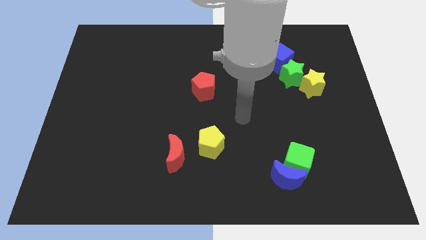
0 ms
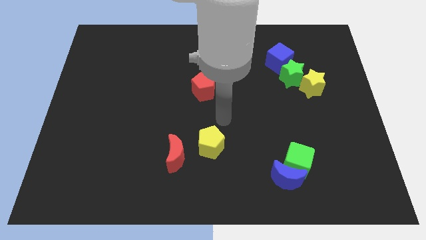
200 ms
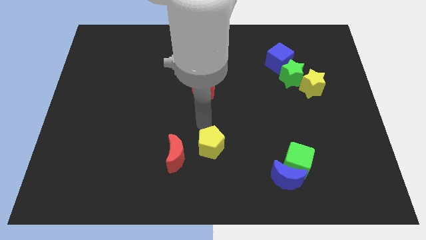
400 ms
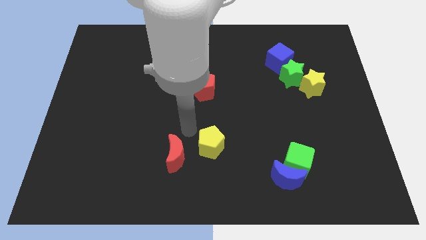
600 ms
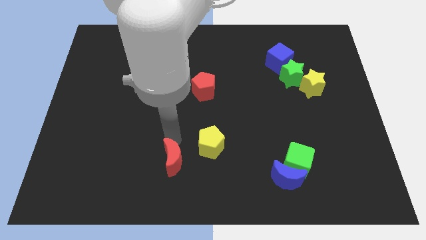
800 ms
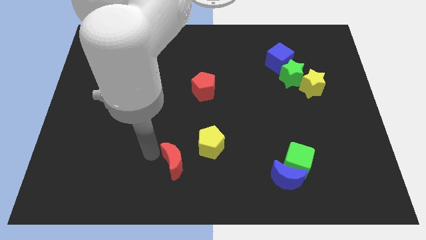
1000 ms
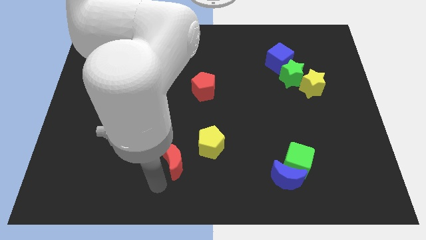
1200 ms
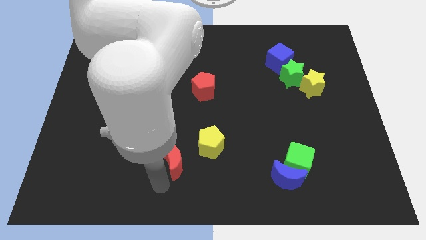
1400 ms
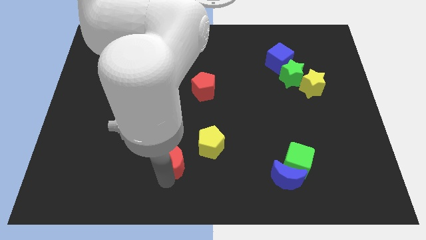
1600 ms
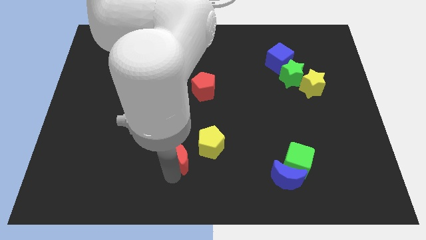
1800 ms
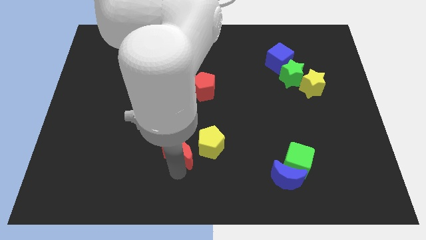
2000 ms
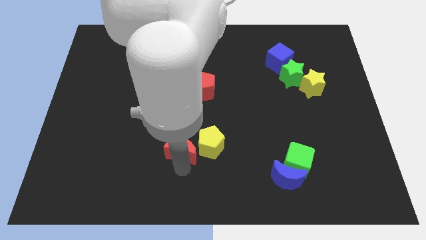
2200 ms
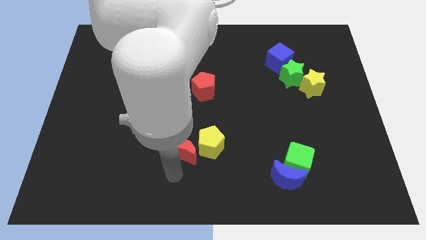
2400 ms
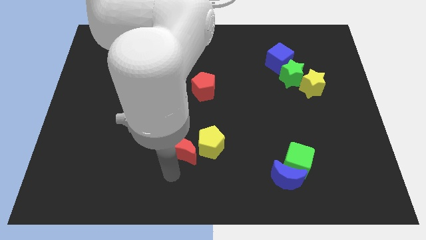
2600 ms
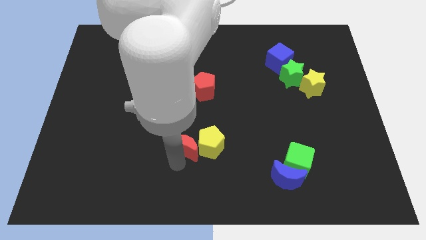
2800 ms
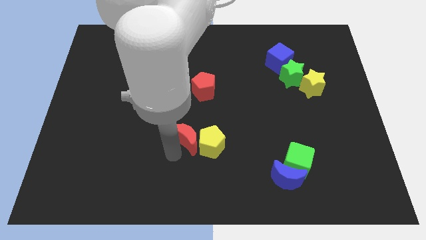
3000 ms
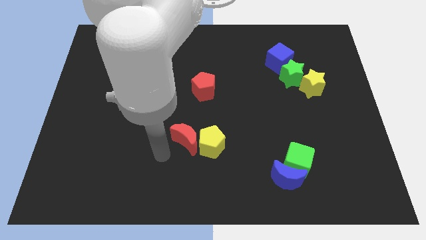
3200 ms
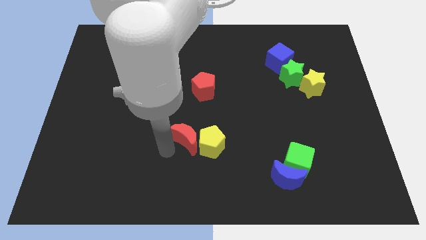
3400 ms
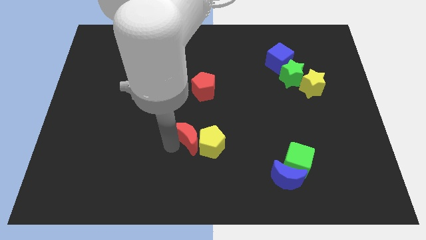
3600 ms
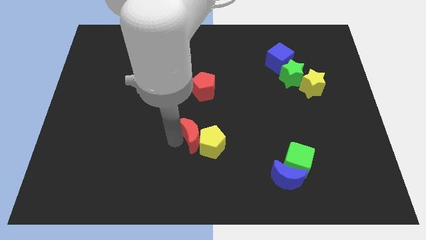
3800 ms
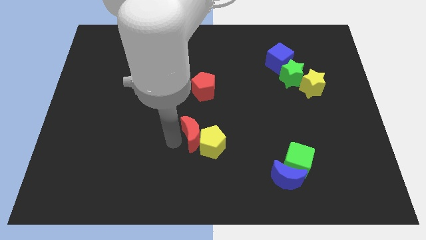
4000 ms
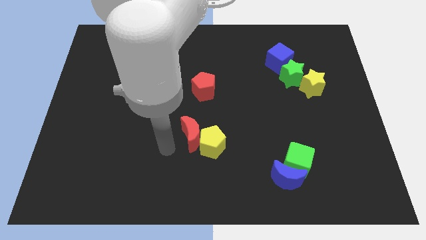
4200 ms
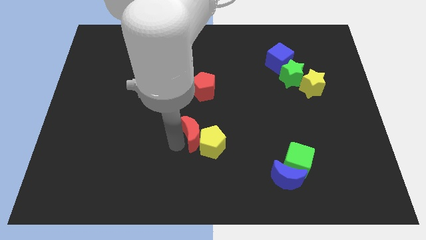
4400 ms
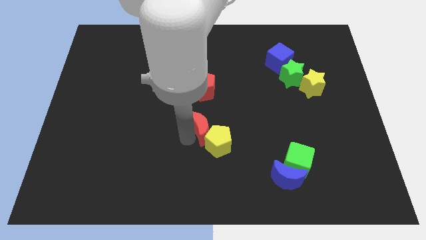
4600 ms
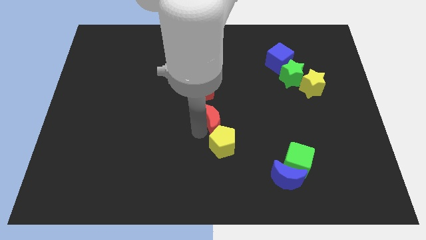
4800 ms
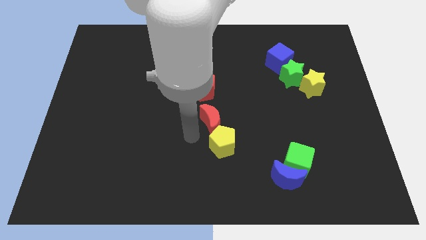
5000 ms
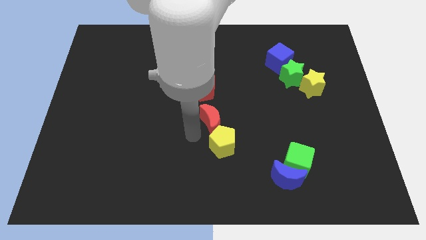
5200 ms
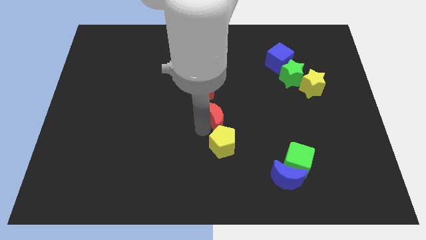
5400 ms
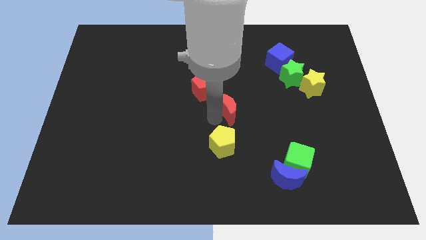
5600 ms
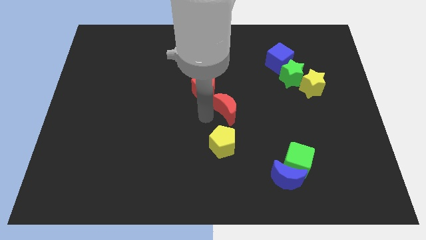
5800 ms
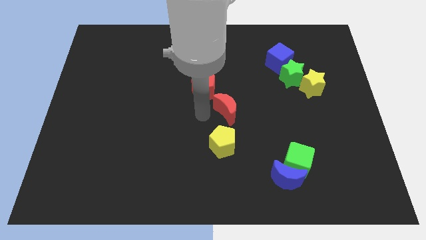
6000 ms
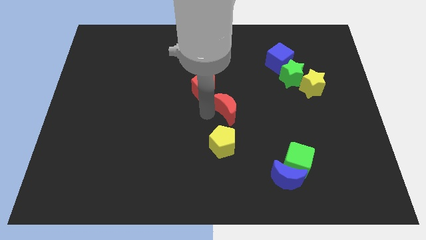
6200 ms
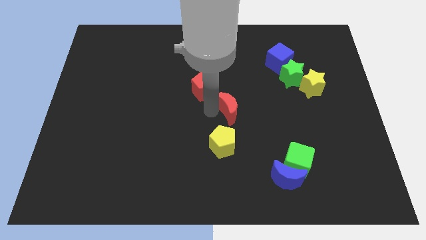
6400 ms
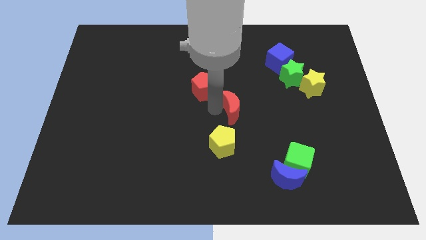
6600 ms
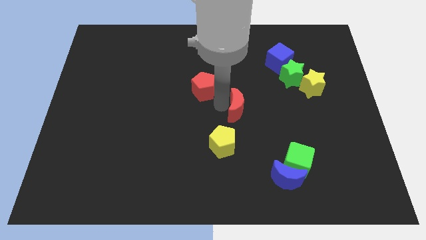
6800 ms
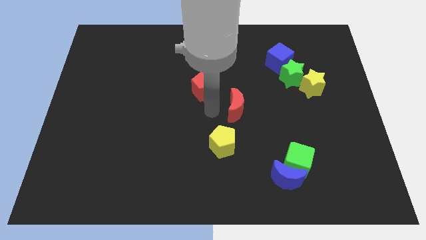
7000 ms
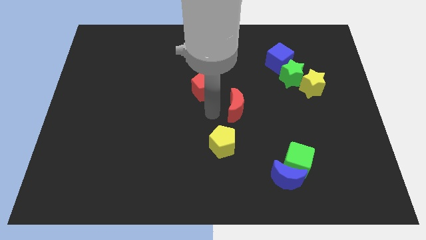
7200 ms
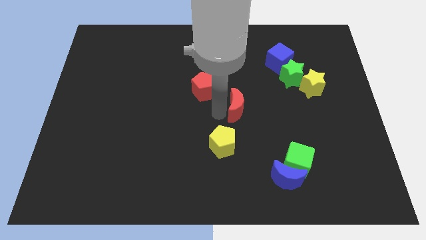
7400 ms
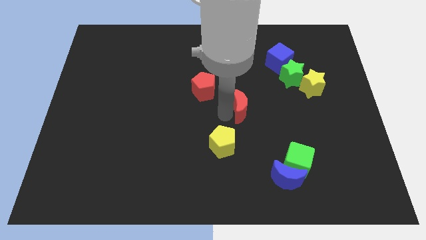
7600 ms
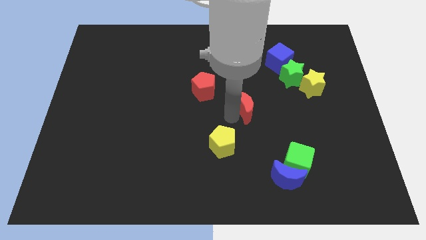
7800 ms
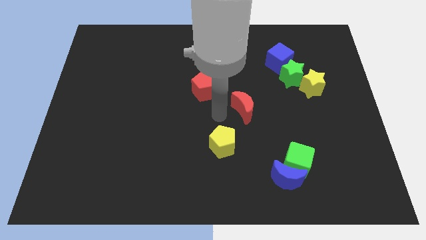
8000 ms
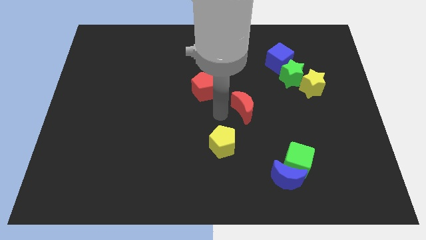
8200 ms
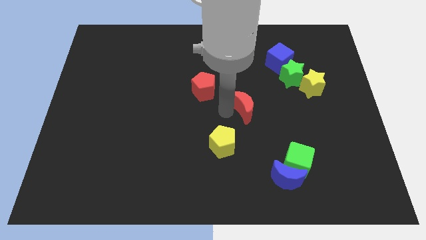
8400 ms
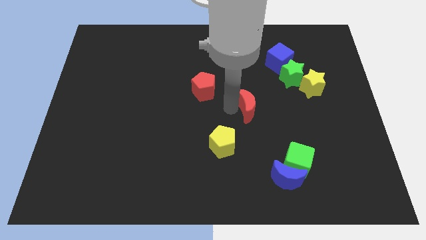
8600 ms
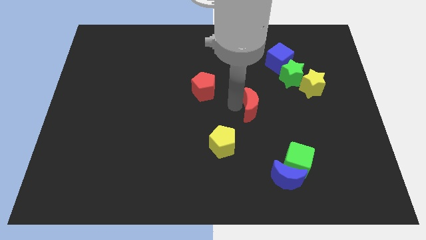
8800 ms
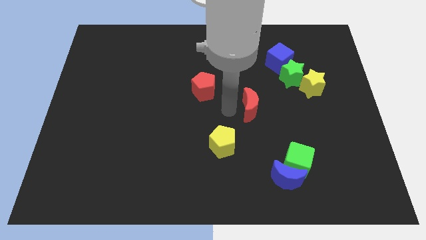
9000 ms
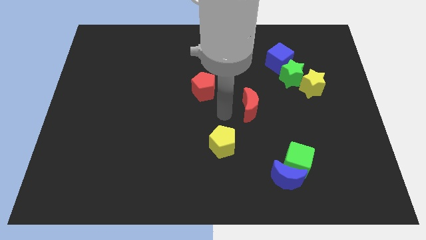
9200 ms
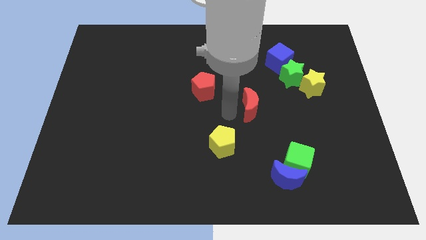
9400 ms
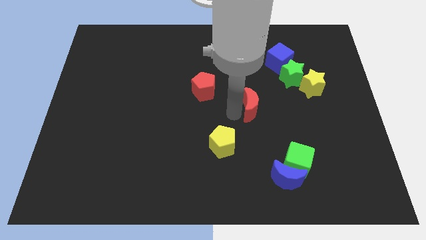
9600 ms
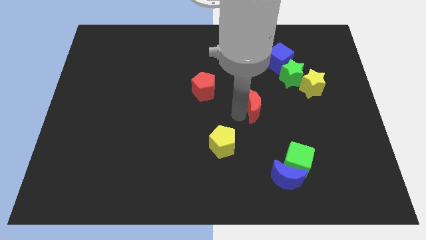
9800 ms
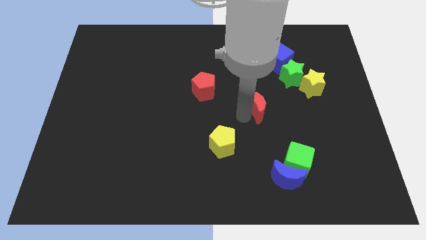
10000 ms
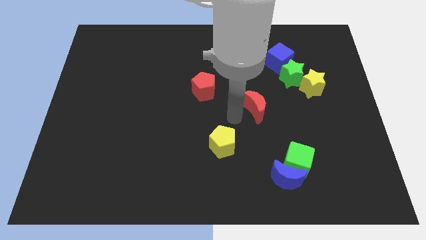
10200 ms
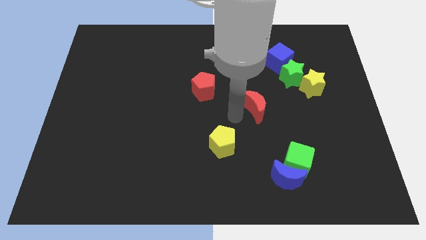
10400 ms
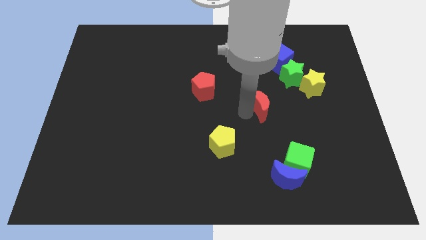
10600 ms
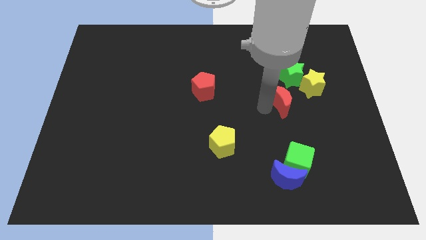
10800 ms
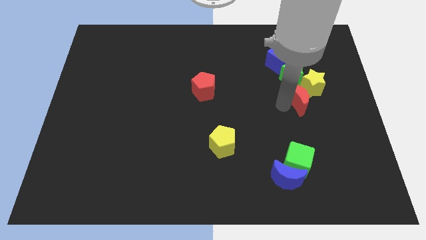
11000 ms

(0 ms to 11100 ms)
slide the red moon next to the yellow star

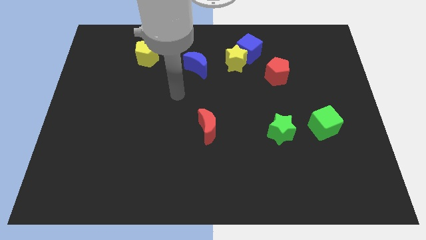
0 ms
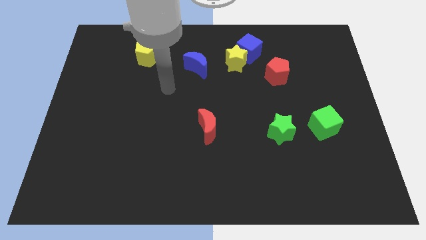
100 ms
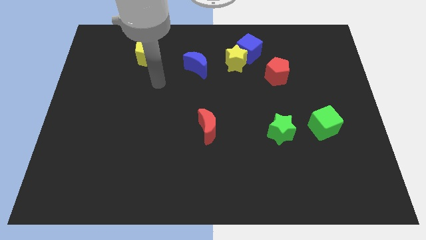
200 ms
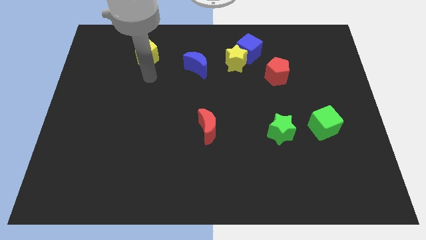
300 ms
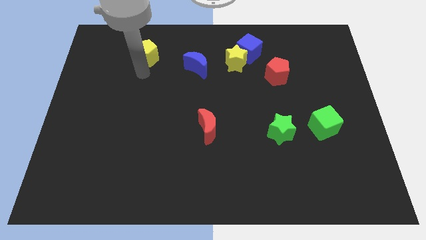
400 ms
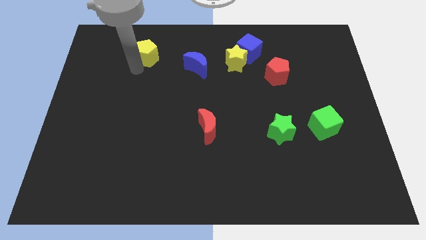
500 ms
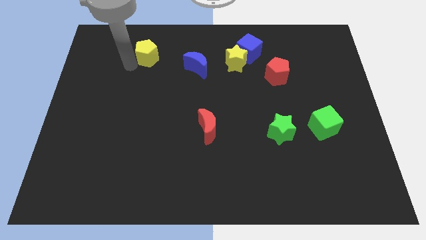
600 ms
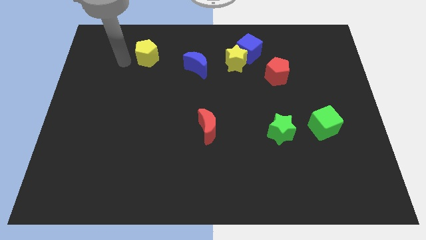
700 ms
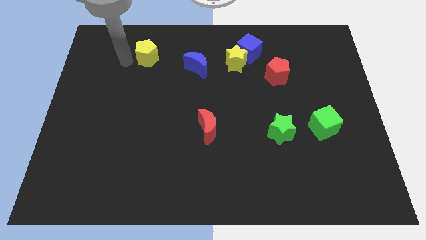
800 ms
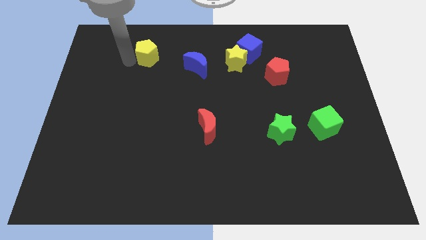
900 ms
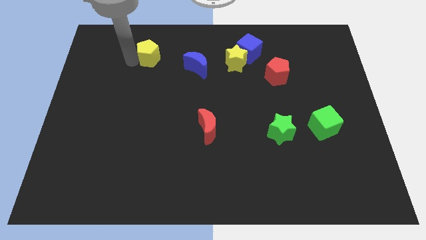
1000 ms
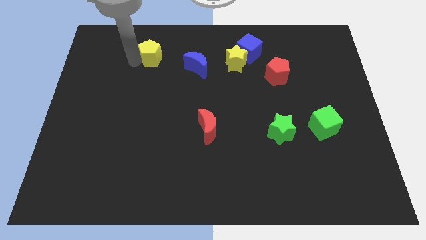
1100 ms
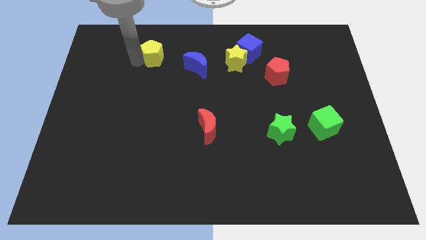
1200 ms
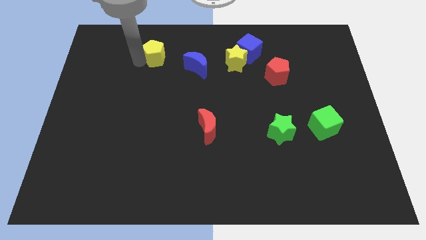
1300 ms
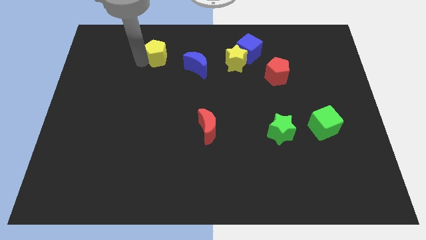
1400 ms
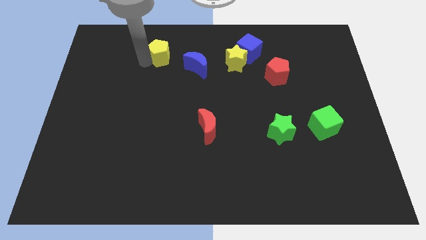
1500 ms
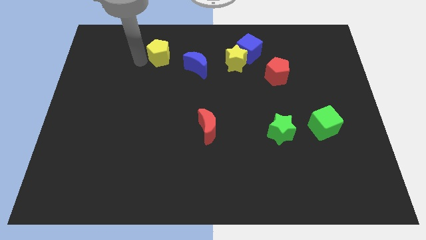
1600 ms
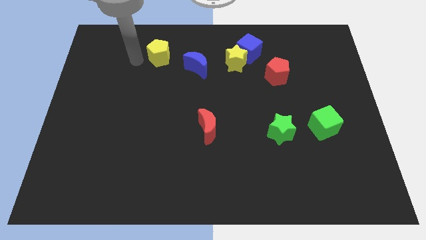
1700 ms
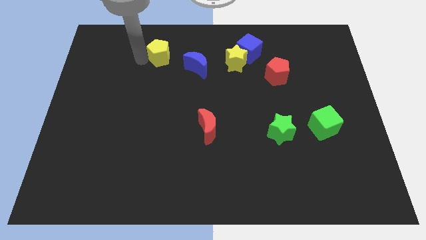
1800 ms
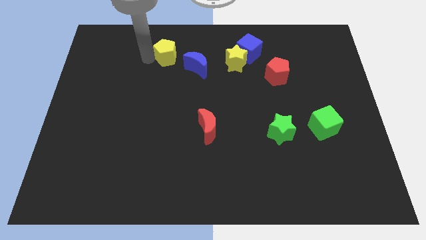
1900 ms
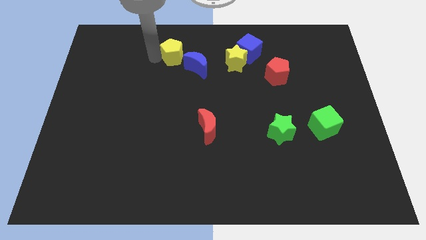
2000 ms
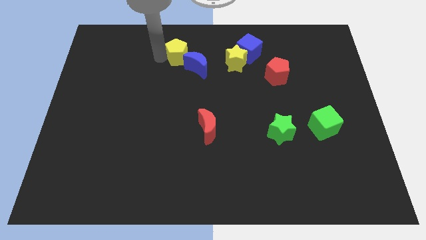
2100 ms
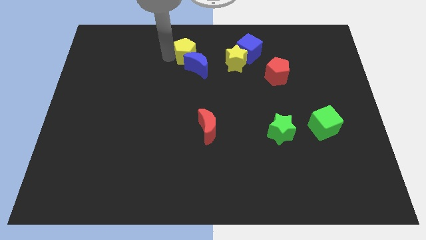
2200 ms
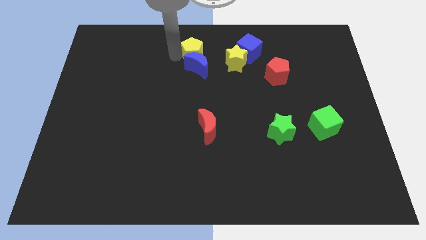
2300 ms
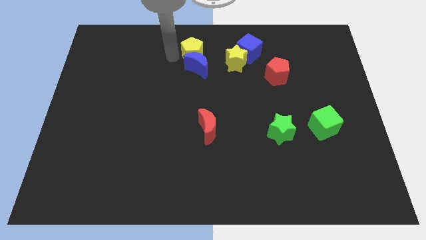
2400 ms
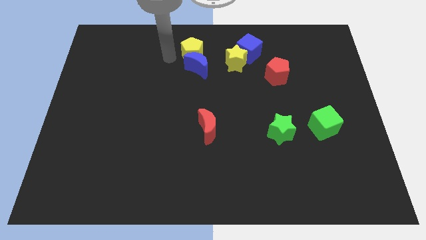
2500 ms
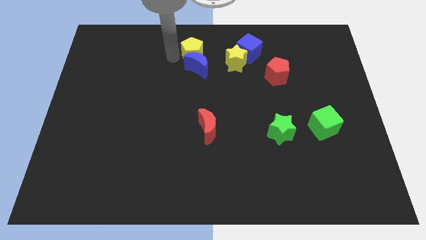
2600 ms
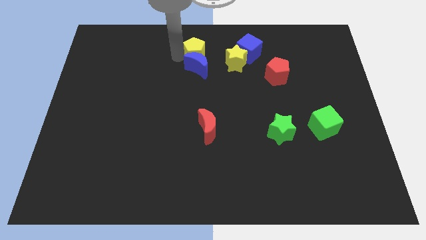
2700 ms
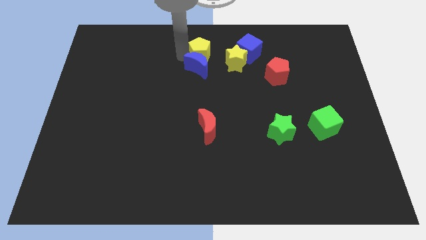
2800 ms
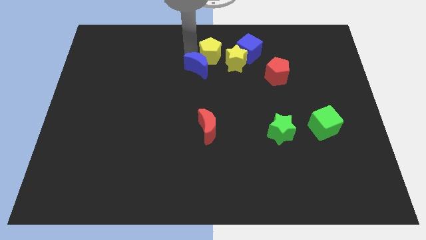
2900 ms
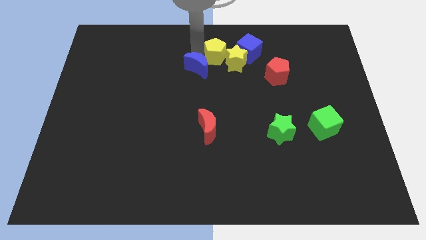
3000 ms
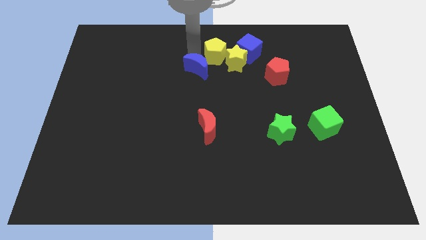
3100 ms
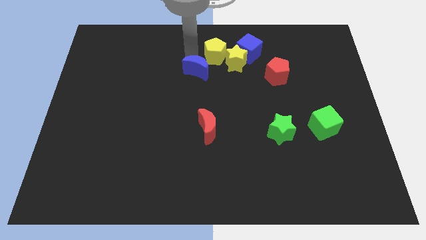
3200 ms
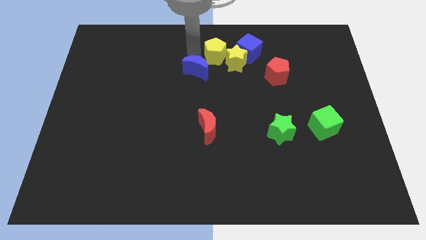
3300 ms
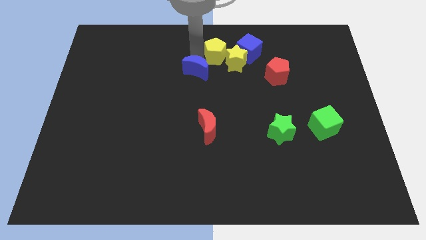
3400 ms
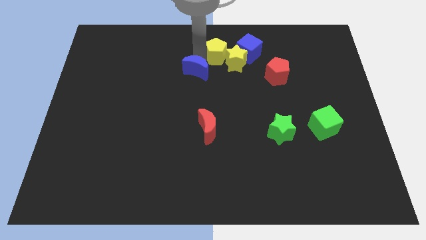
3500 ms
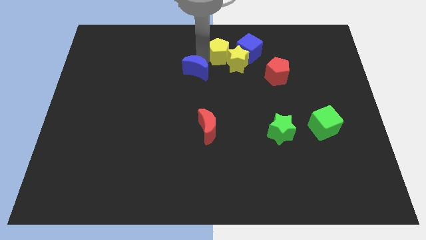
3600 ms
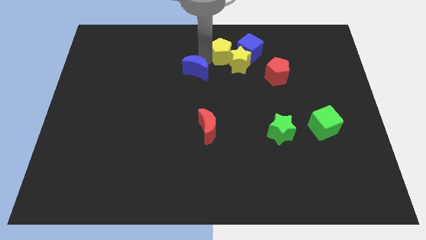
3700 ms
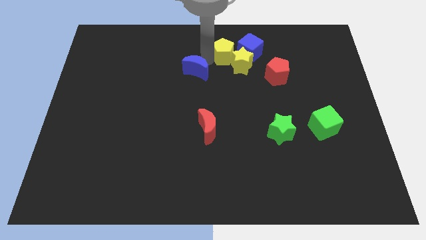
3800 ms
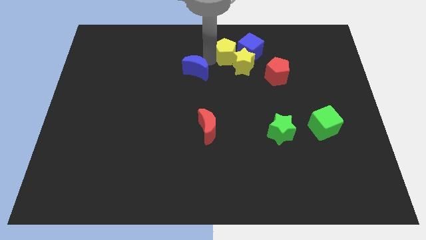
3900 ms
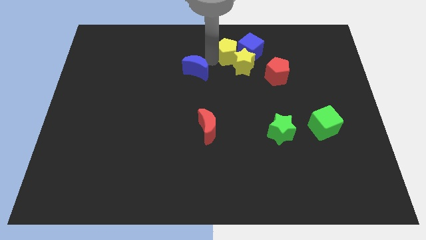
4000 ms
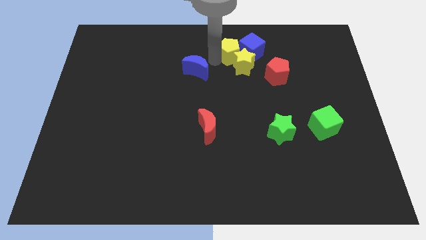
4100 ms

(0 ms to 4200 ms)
slide the yellow pentagon to the blue cube
